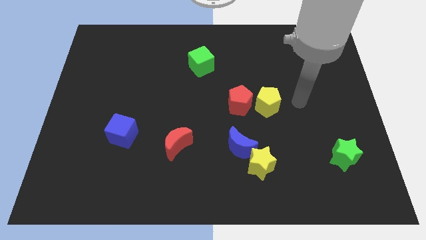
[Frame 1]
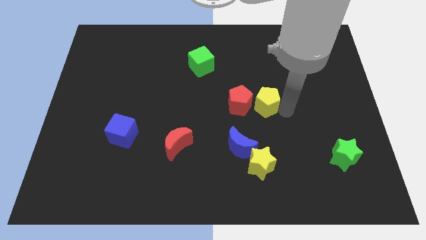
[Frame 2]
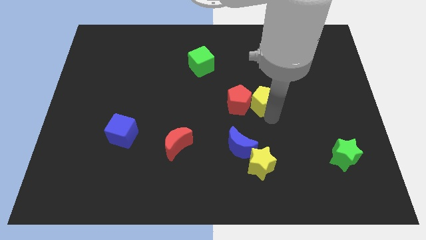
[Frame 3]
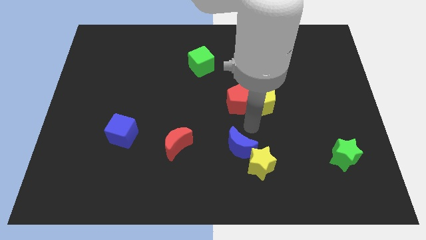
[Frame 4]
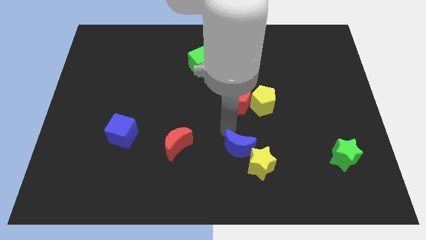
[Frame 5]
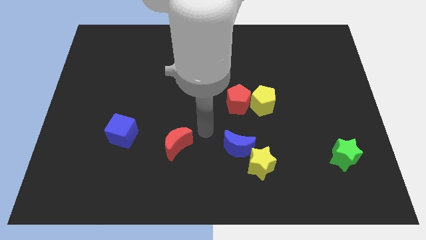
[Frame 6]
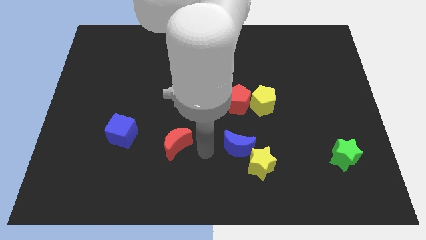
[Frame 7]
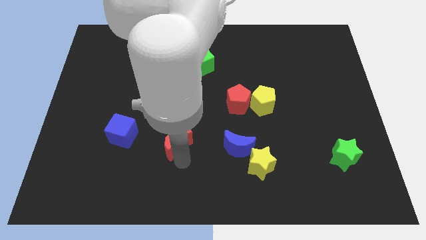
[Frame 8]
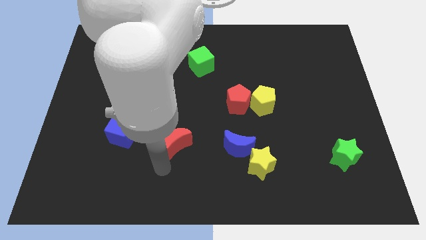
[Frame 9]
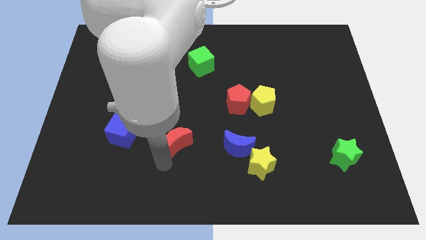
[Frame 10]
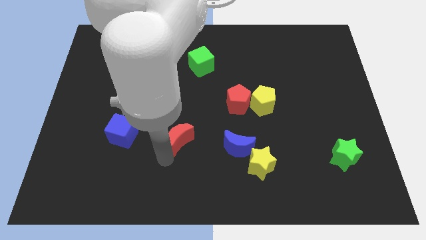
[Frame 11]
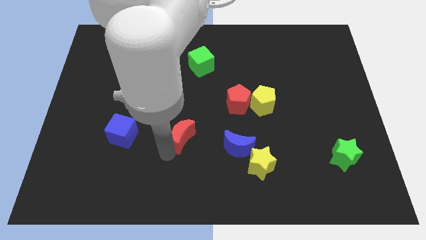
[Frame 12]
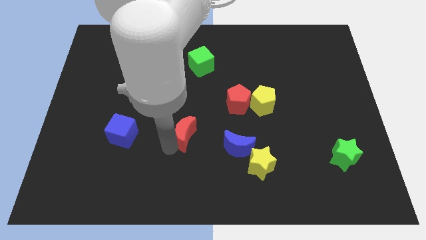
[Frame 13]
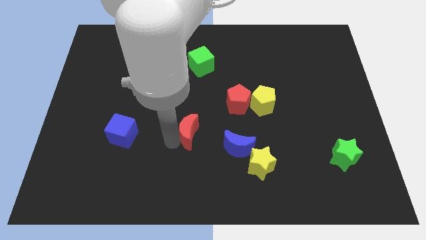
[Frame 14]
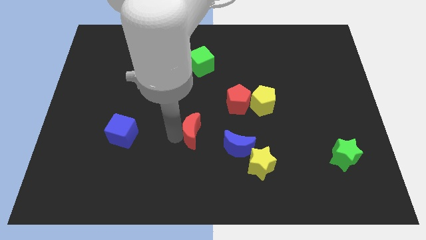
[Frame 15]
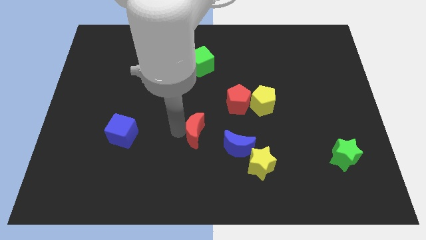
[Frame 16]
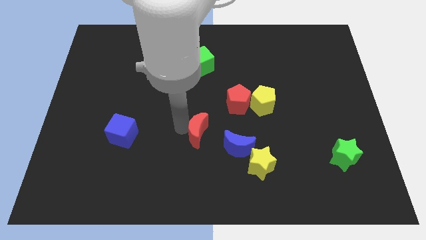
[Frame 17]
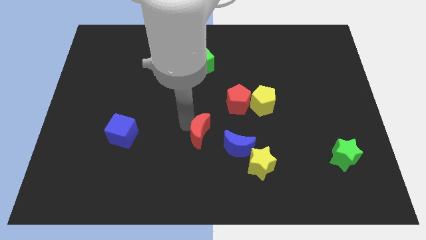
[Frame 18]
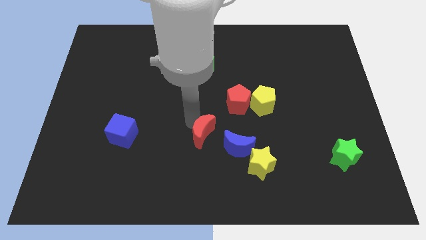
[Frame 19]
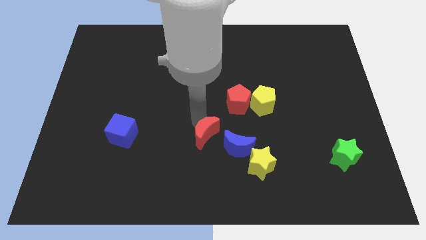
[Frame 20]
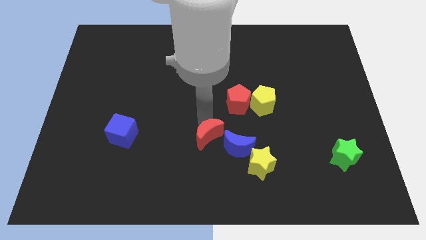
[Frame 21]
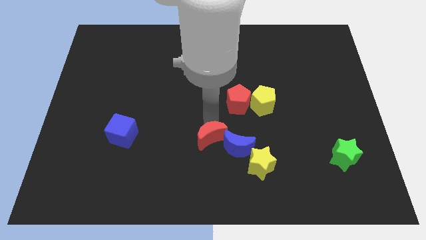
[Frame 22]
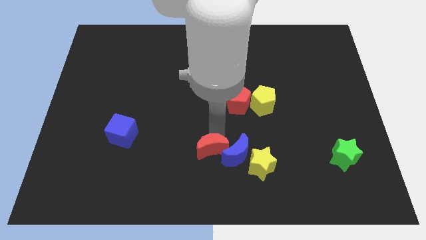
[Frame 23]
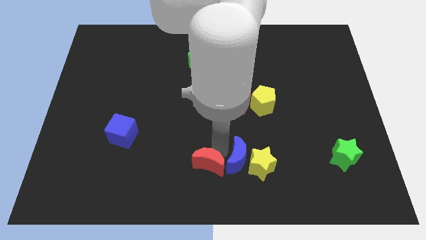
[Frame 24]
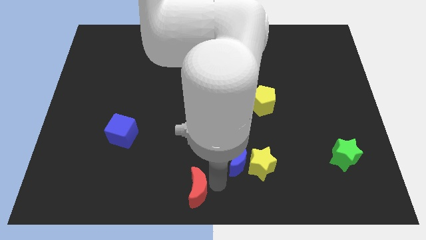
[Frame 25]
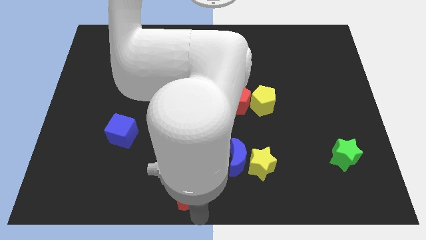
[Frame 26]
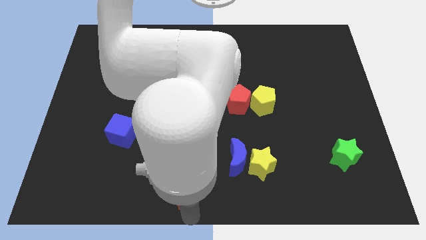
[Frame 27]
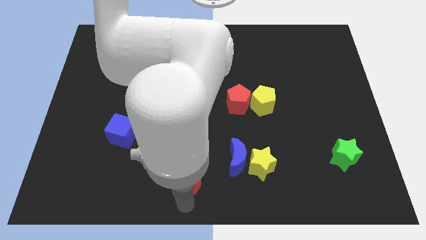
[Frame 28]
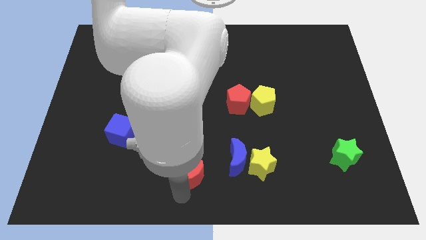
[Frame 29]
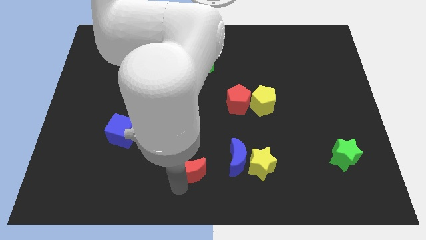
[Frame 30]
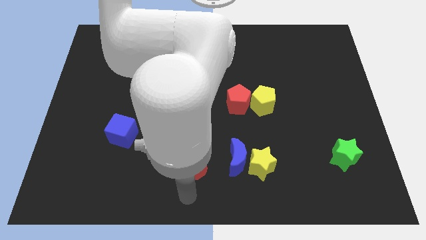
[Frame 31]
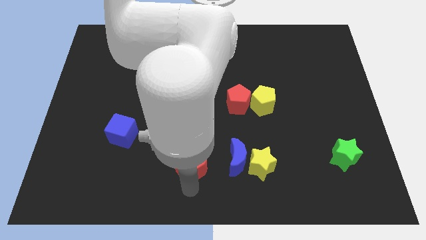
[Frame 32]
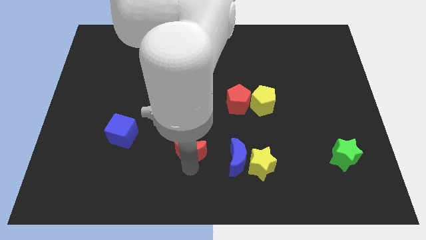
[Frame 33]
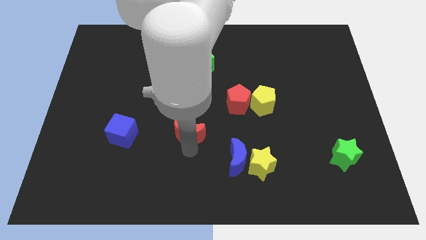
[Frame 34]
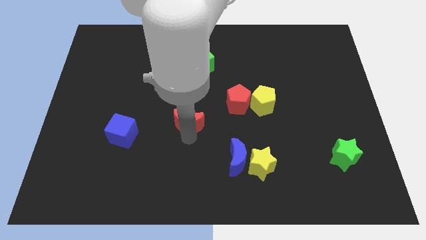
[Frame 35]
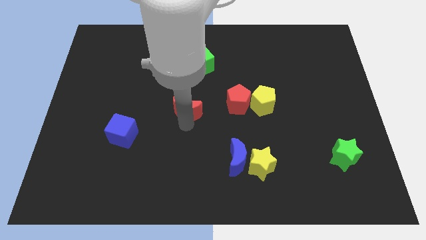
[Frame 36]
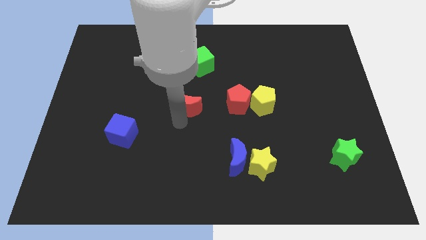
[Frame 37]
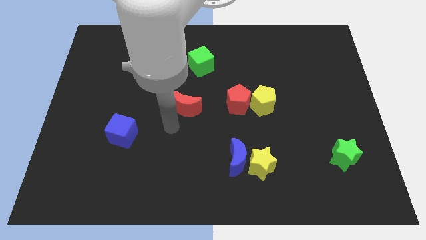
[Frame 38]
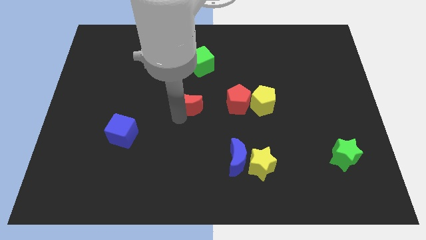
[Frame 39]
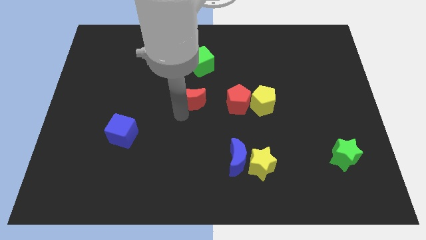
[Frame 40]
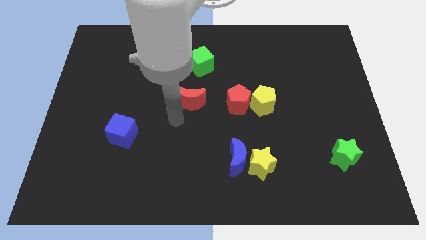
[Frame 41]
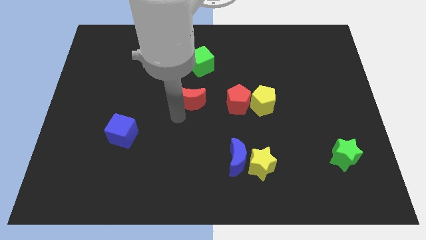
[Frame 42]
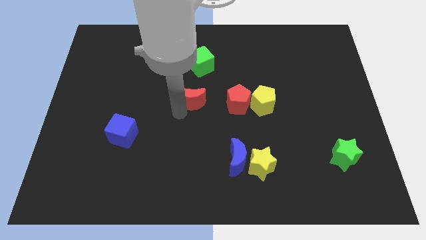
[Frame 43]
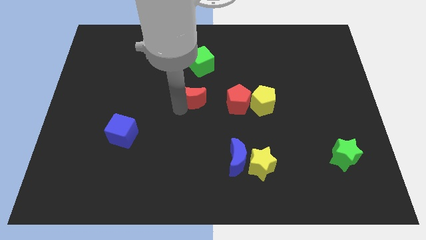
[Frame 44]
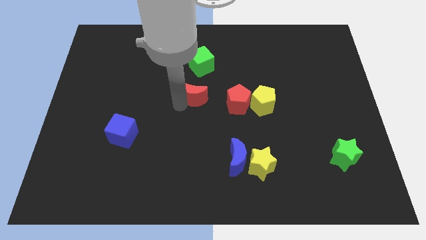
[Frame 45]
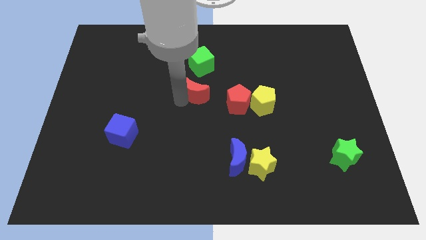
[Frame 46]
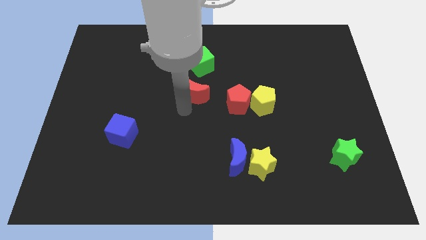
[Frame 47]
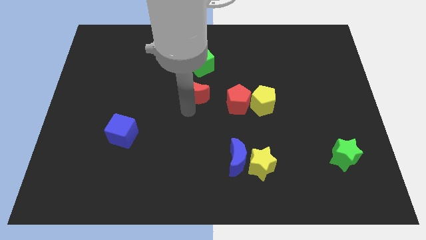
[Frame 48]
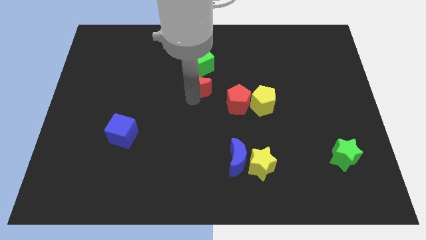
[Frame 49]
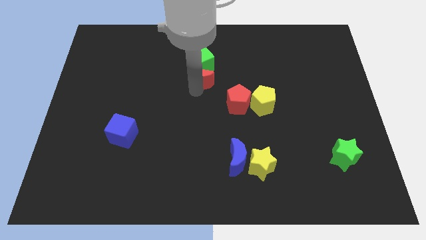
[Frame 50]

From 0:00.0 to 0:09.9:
push the red moon towards the green cube

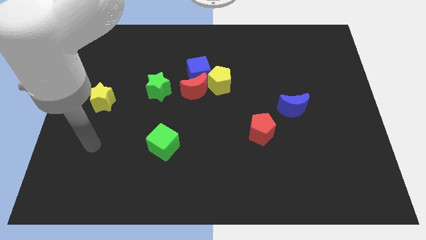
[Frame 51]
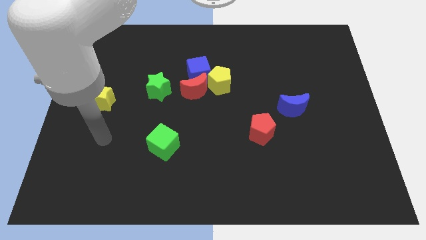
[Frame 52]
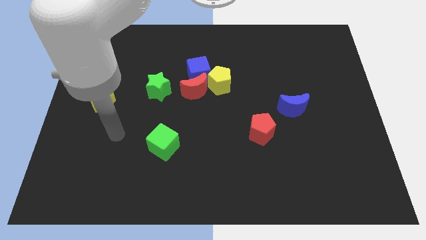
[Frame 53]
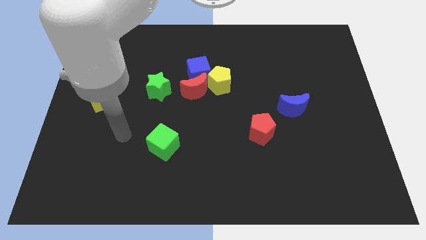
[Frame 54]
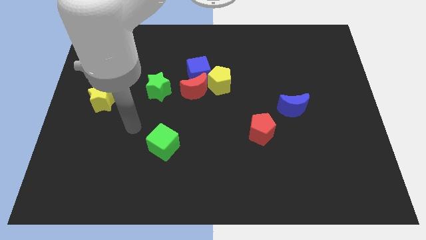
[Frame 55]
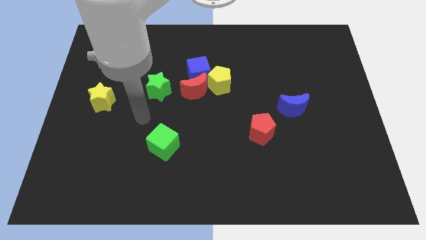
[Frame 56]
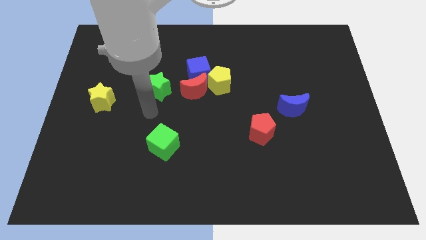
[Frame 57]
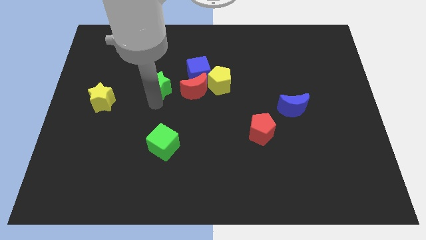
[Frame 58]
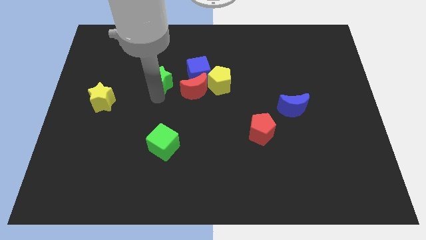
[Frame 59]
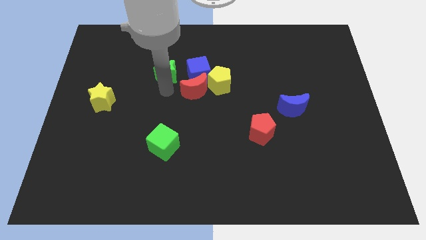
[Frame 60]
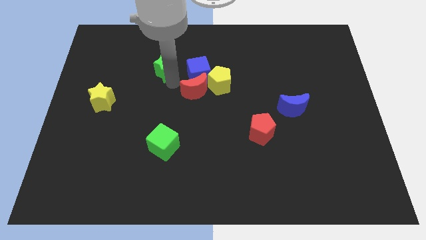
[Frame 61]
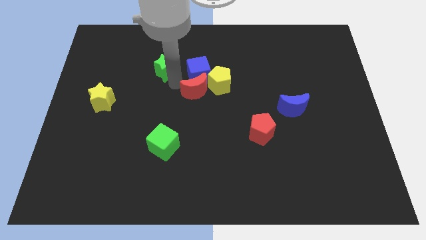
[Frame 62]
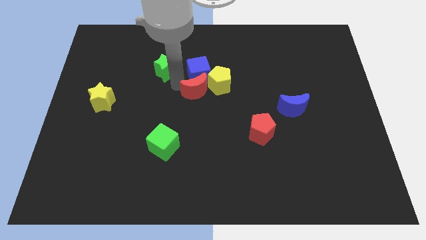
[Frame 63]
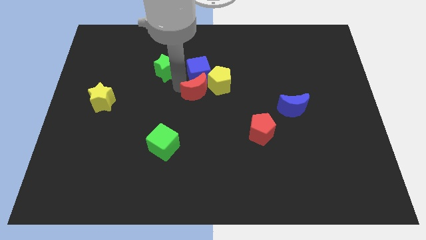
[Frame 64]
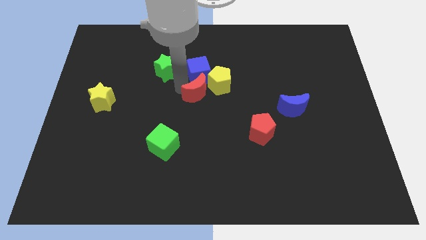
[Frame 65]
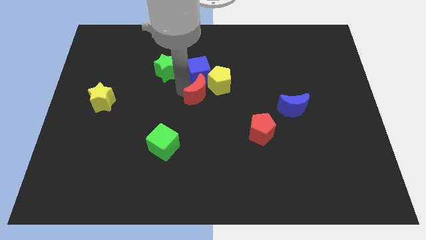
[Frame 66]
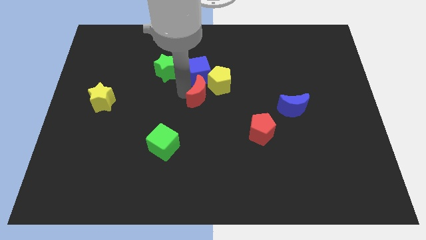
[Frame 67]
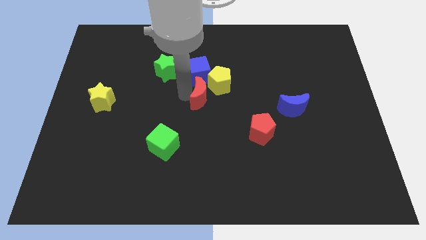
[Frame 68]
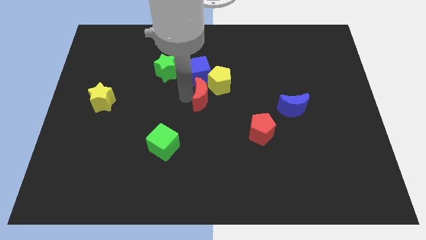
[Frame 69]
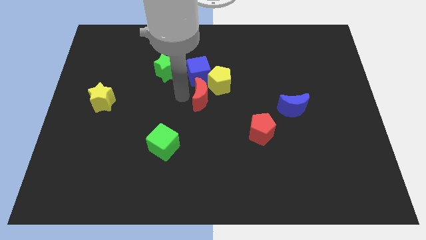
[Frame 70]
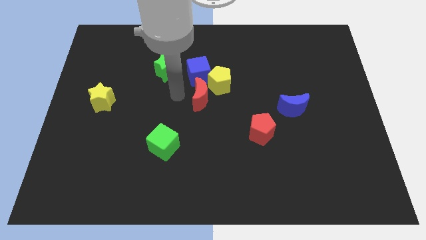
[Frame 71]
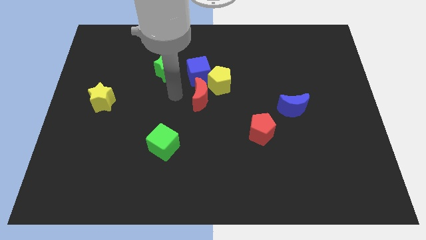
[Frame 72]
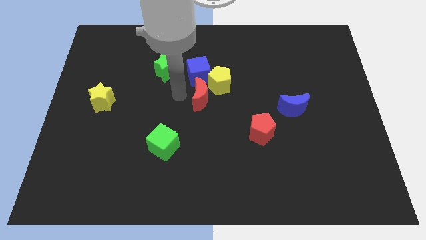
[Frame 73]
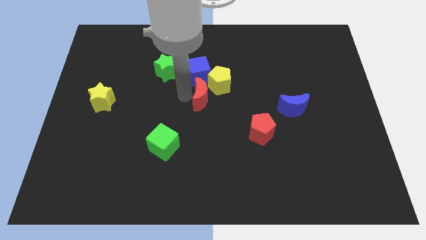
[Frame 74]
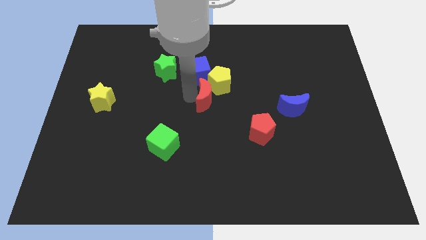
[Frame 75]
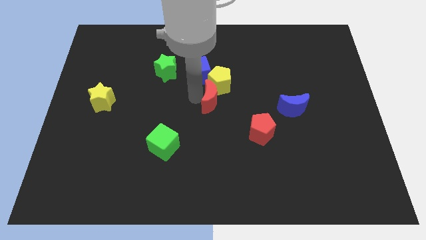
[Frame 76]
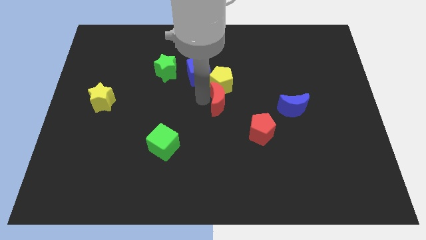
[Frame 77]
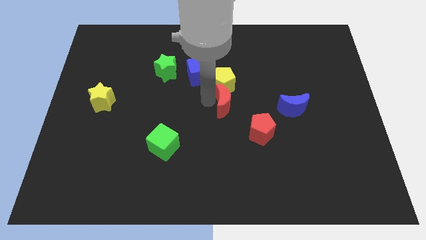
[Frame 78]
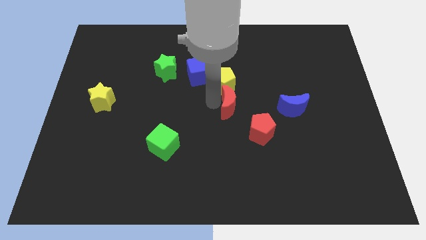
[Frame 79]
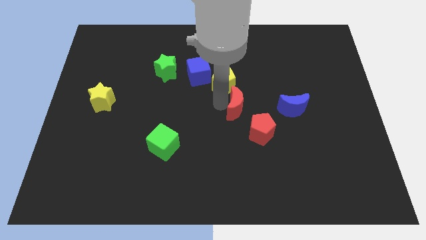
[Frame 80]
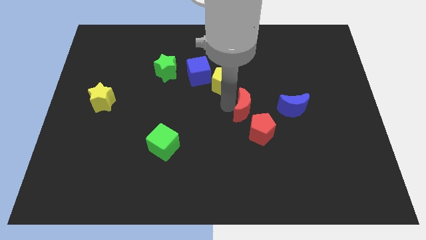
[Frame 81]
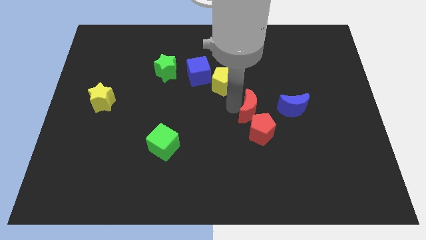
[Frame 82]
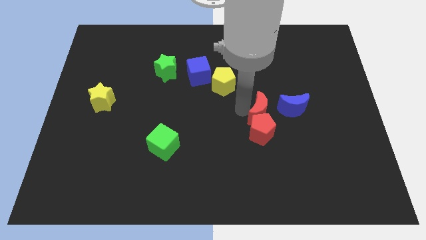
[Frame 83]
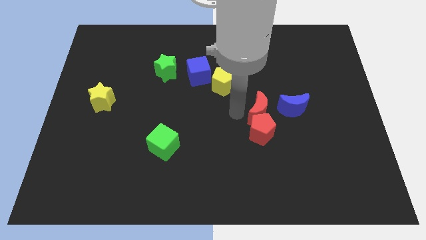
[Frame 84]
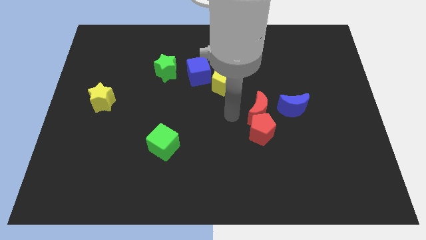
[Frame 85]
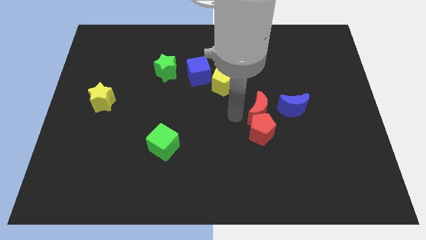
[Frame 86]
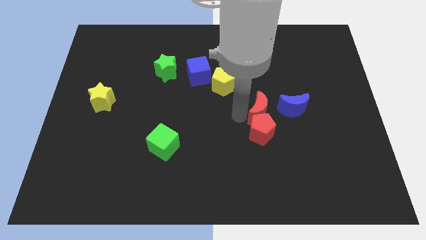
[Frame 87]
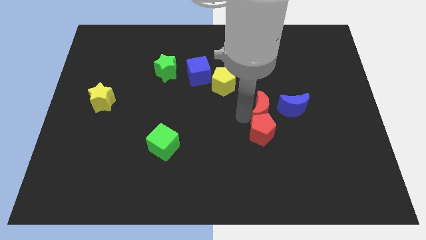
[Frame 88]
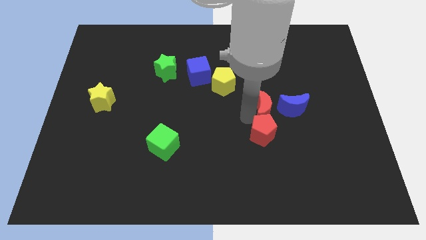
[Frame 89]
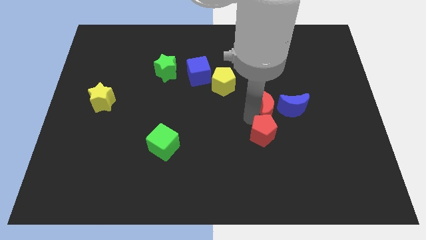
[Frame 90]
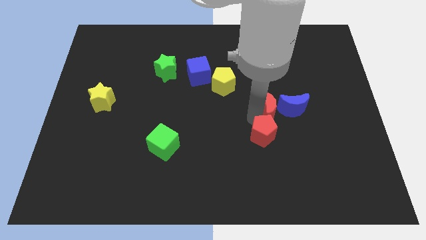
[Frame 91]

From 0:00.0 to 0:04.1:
slide the red moon to the blue moon
